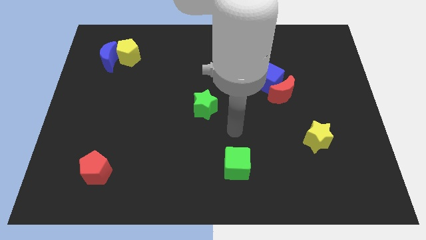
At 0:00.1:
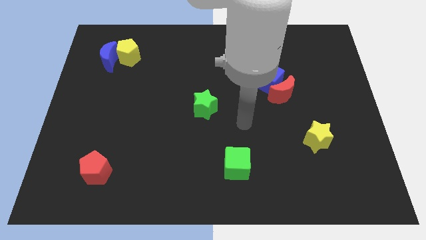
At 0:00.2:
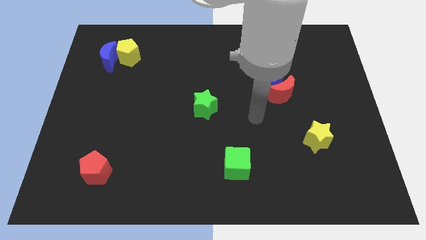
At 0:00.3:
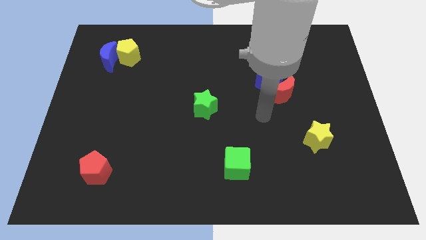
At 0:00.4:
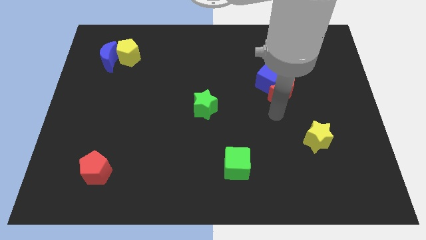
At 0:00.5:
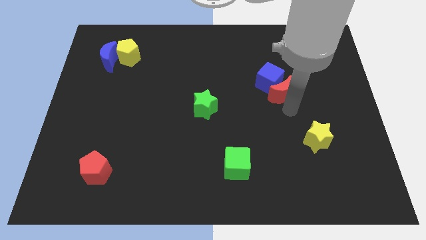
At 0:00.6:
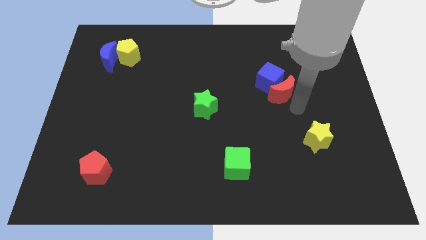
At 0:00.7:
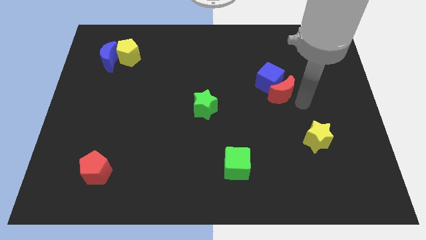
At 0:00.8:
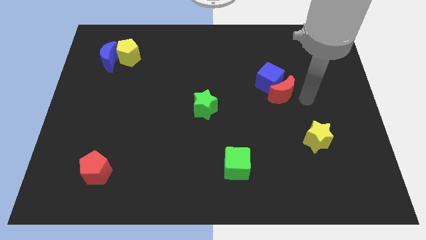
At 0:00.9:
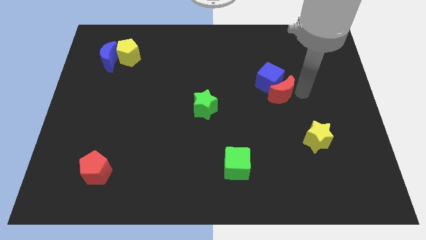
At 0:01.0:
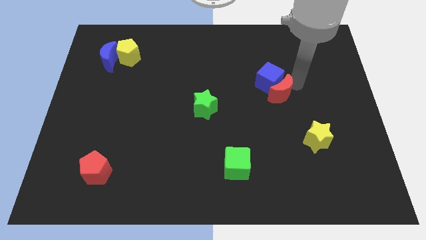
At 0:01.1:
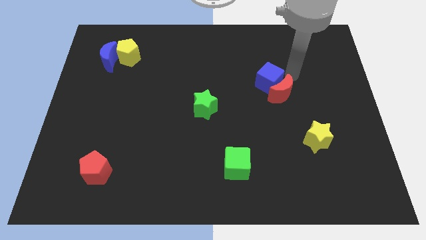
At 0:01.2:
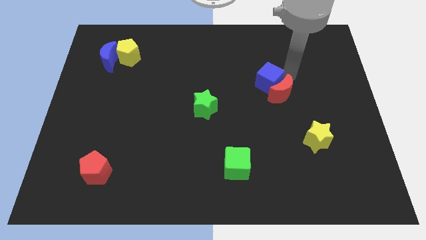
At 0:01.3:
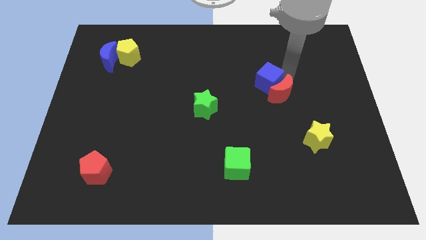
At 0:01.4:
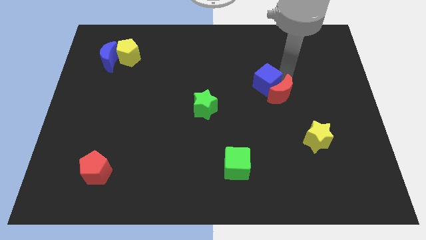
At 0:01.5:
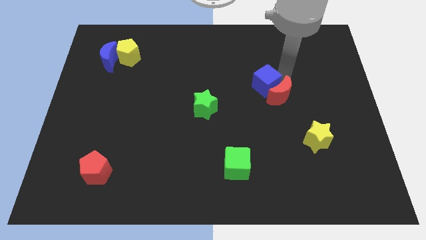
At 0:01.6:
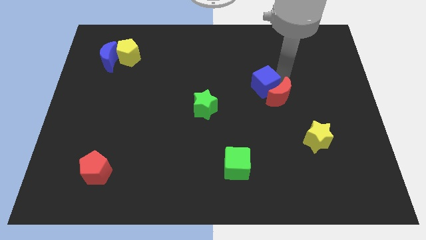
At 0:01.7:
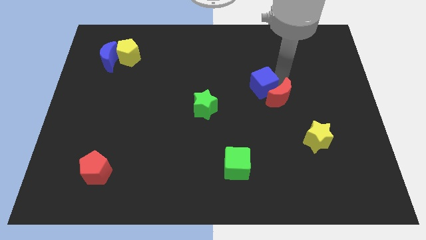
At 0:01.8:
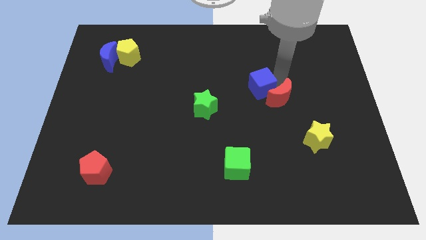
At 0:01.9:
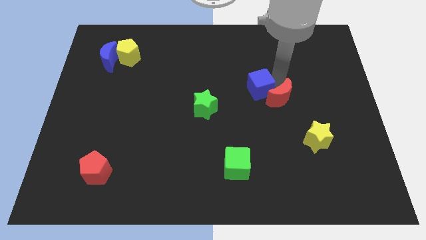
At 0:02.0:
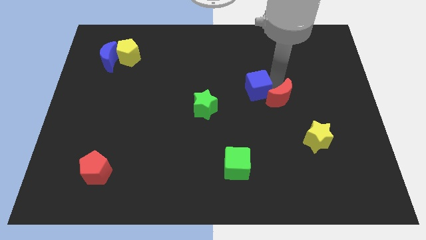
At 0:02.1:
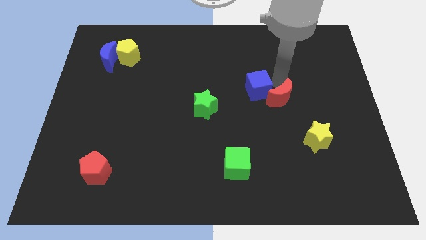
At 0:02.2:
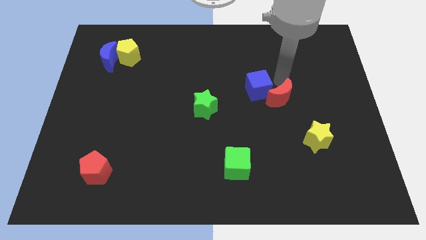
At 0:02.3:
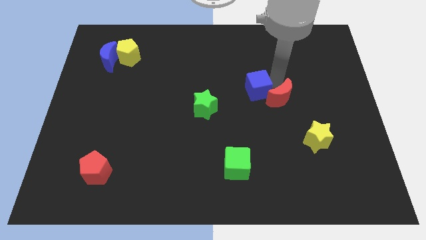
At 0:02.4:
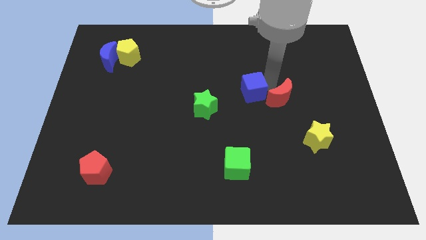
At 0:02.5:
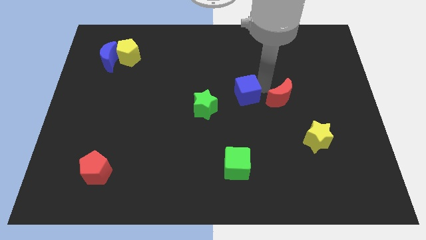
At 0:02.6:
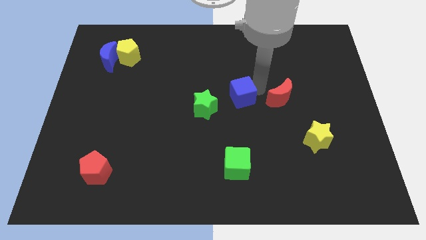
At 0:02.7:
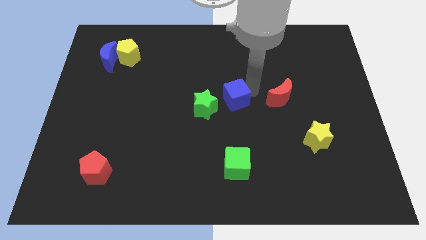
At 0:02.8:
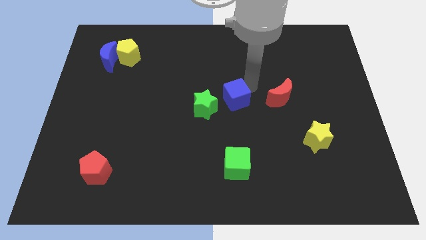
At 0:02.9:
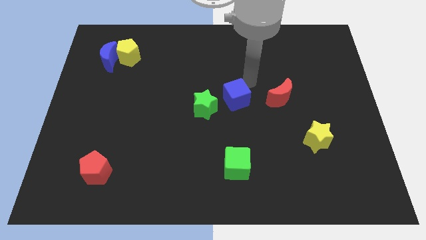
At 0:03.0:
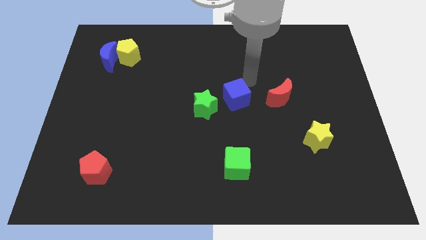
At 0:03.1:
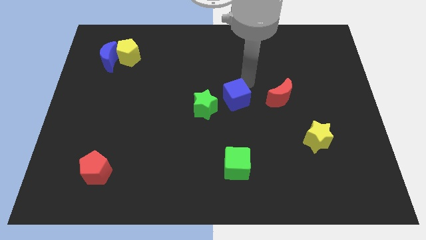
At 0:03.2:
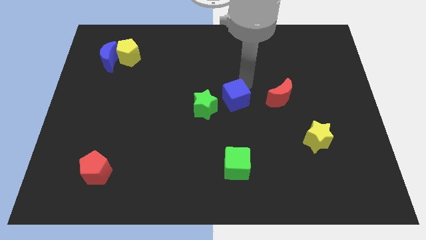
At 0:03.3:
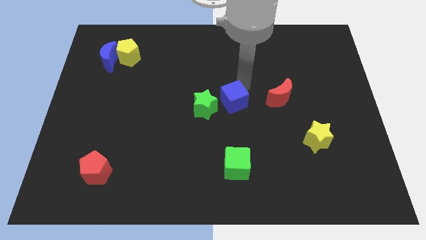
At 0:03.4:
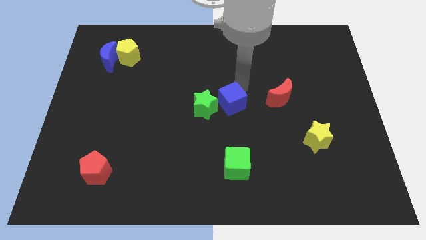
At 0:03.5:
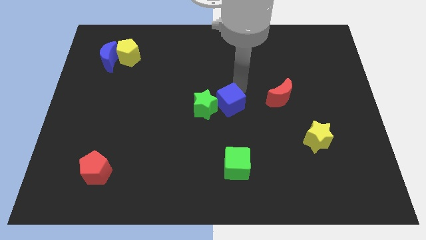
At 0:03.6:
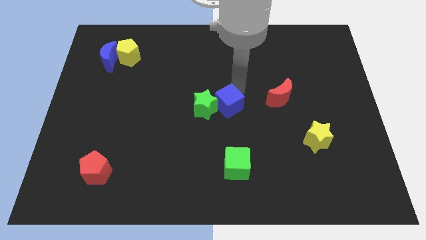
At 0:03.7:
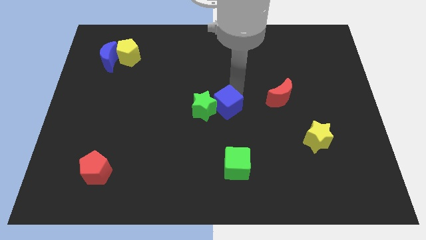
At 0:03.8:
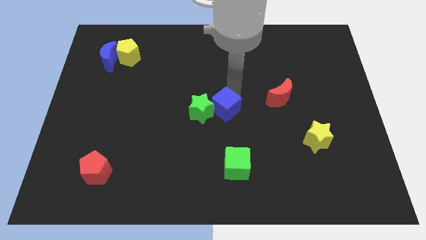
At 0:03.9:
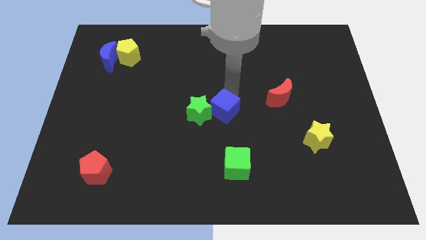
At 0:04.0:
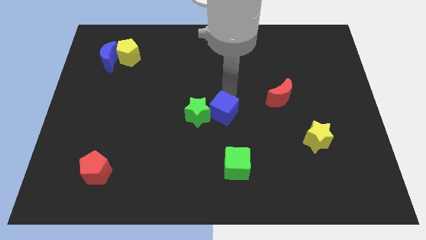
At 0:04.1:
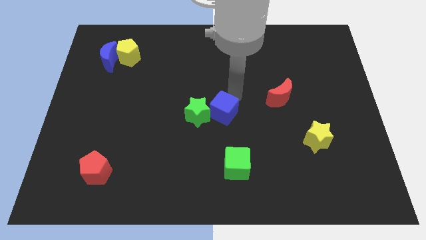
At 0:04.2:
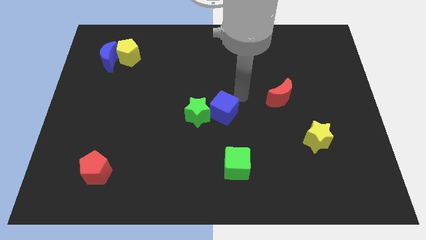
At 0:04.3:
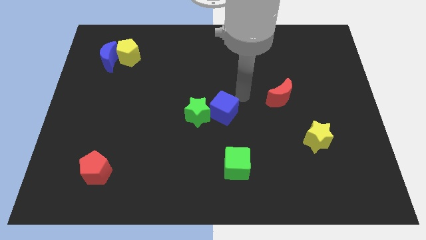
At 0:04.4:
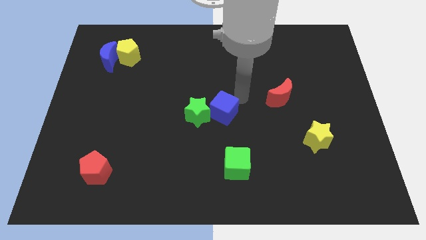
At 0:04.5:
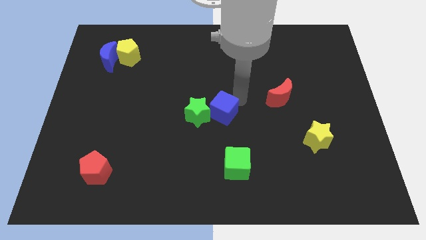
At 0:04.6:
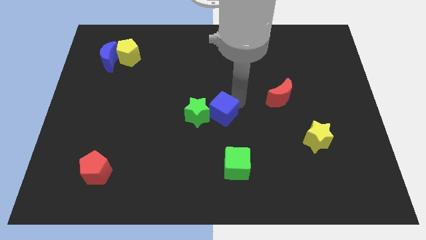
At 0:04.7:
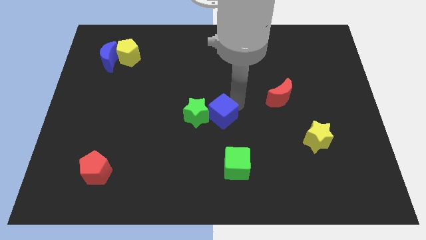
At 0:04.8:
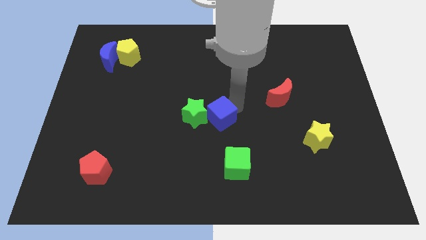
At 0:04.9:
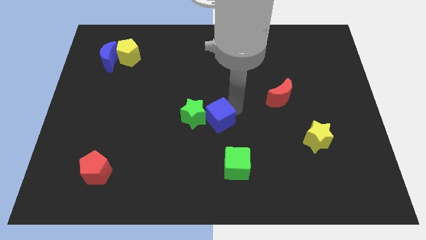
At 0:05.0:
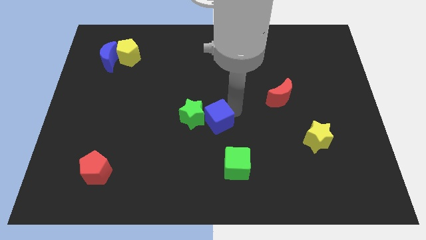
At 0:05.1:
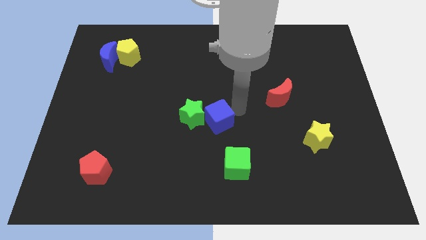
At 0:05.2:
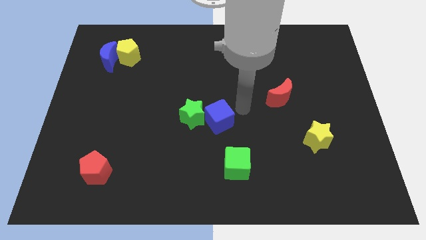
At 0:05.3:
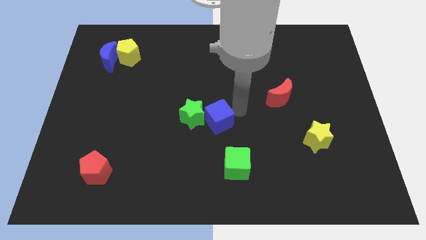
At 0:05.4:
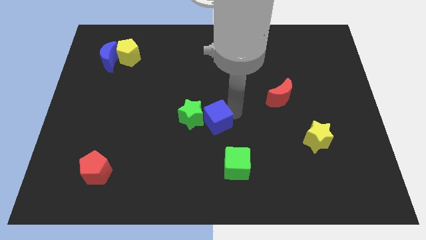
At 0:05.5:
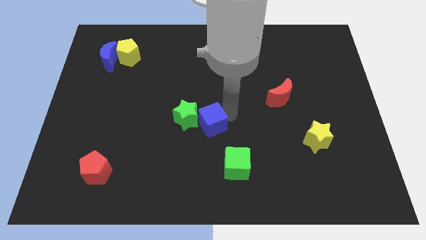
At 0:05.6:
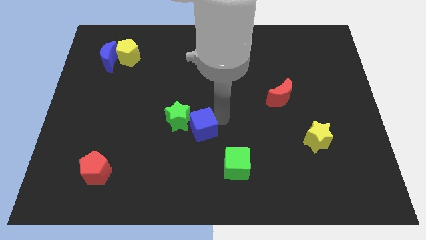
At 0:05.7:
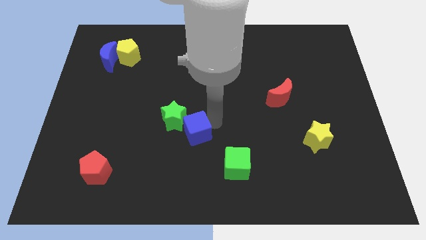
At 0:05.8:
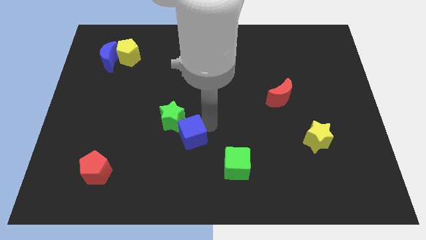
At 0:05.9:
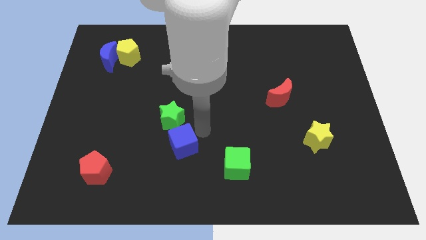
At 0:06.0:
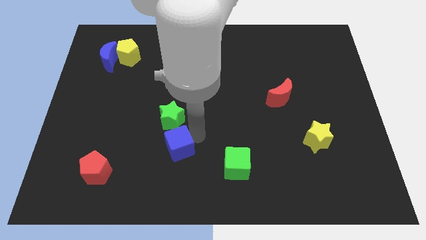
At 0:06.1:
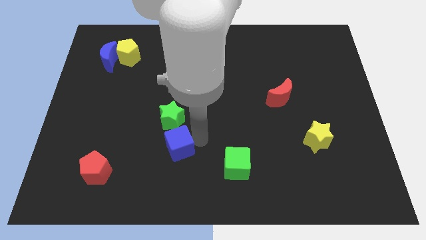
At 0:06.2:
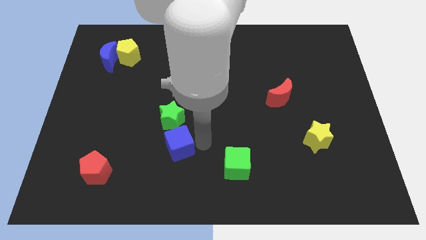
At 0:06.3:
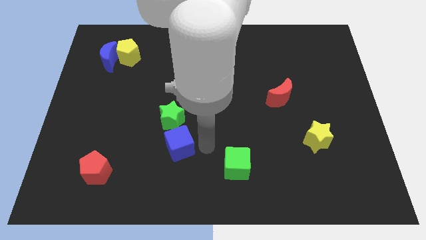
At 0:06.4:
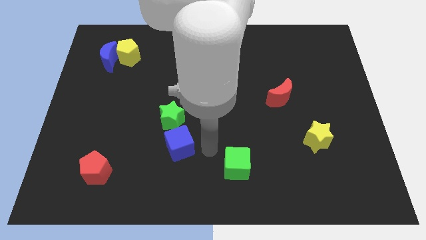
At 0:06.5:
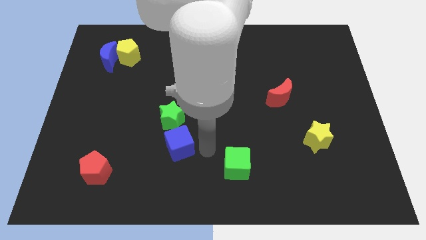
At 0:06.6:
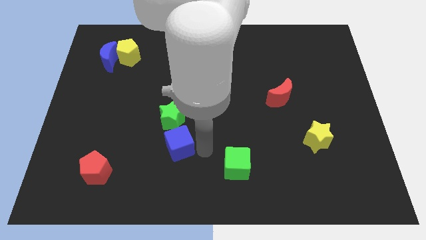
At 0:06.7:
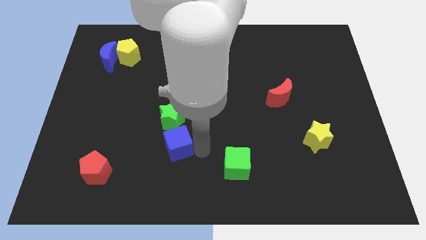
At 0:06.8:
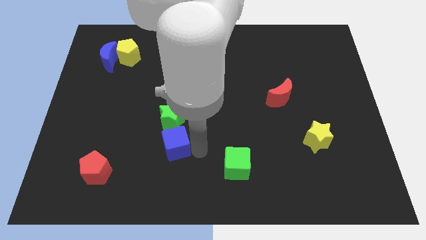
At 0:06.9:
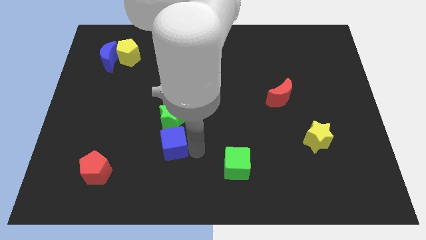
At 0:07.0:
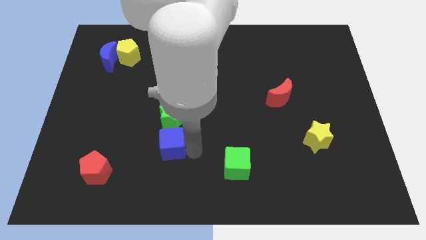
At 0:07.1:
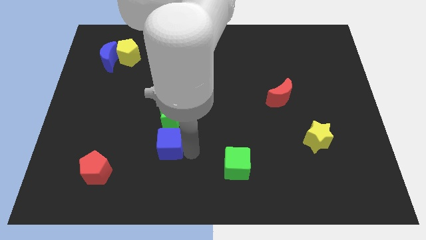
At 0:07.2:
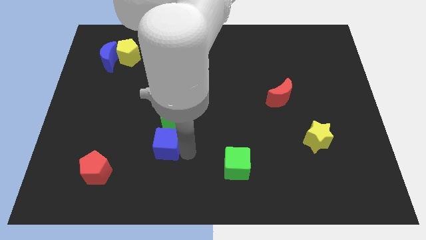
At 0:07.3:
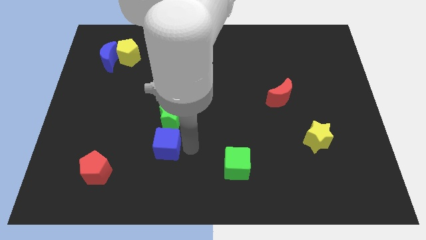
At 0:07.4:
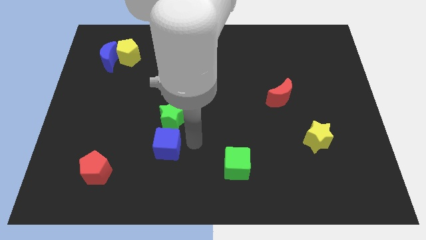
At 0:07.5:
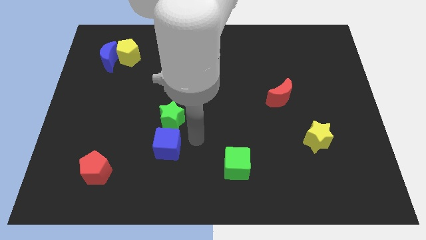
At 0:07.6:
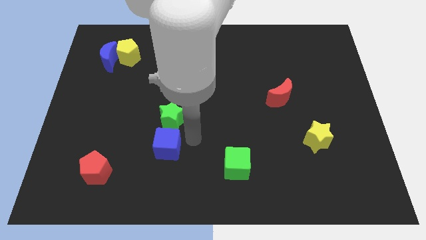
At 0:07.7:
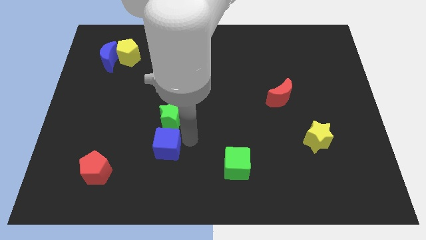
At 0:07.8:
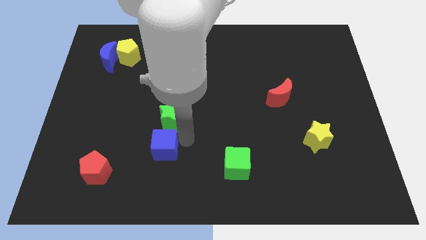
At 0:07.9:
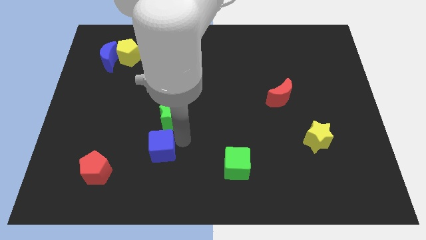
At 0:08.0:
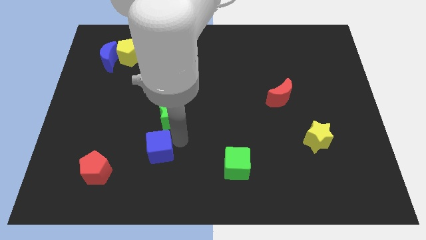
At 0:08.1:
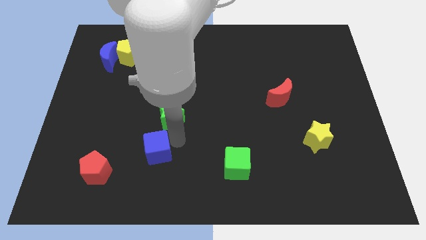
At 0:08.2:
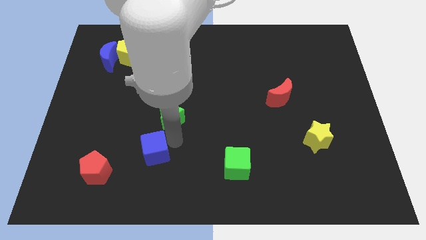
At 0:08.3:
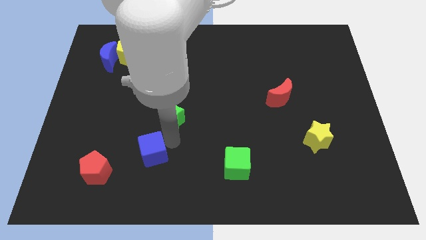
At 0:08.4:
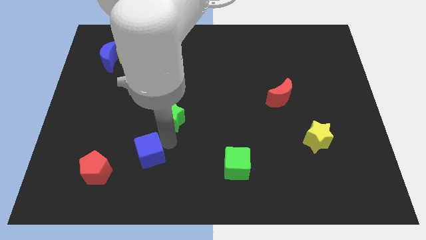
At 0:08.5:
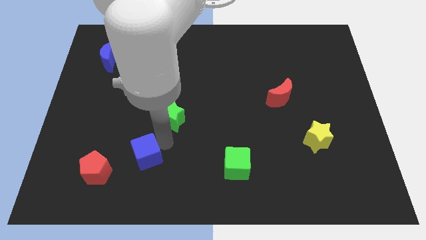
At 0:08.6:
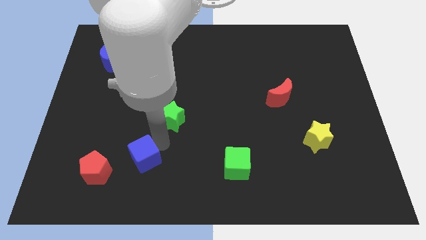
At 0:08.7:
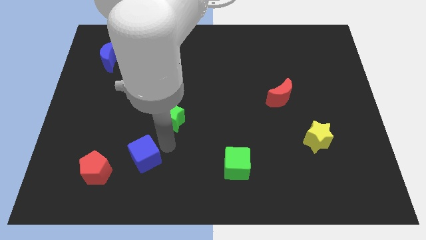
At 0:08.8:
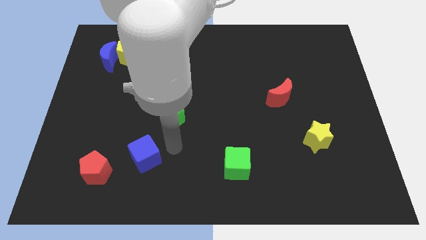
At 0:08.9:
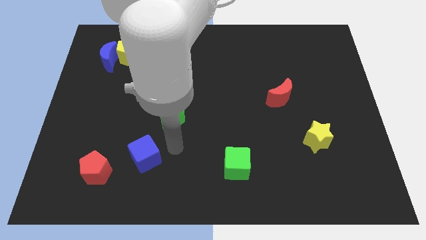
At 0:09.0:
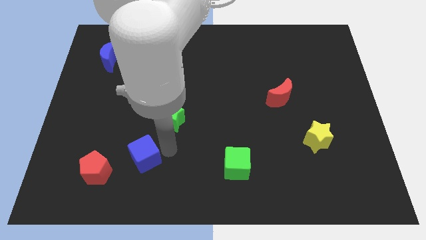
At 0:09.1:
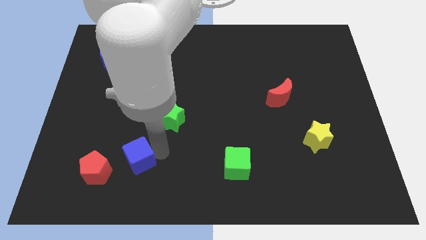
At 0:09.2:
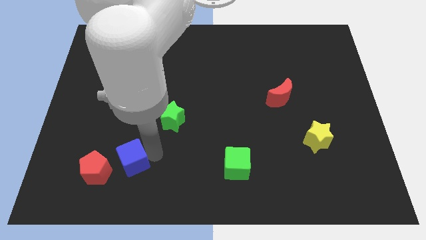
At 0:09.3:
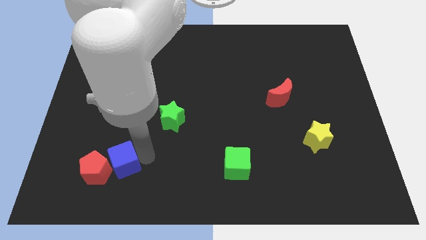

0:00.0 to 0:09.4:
slide the blue cube to the red pentagon
